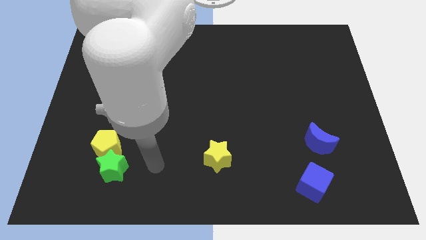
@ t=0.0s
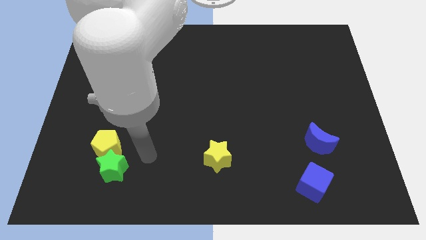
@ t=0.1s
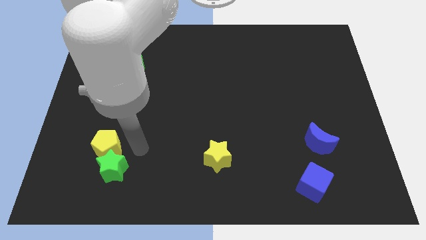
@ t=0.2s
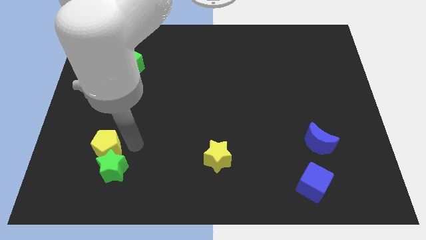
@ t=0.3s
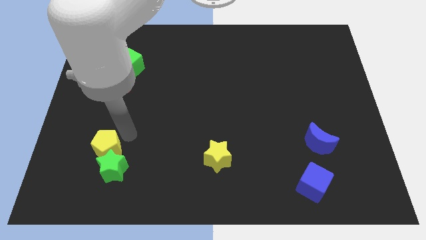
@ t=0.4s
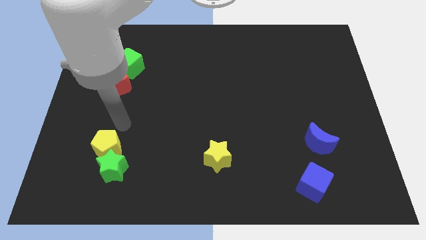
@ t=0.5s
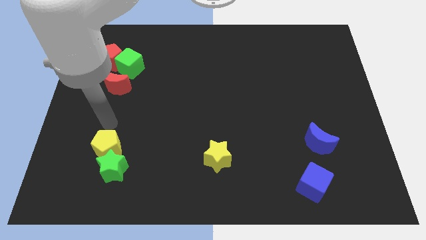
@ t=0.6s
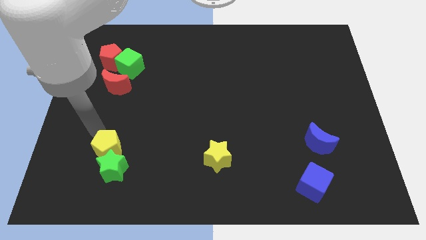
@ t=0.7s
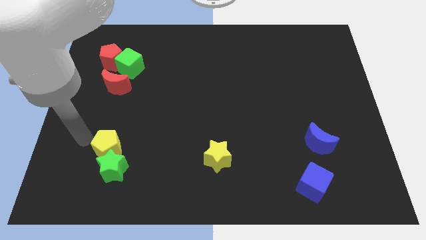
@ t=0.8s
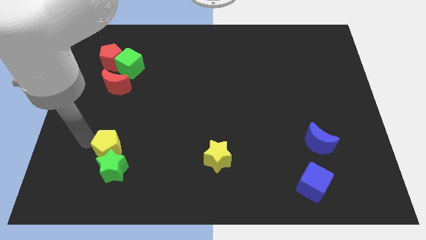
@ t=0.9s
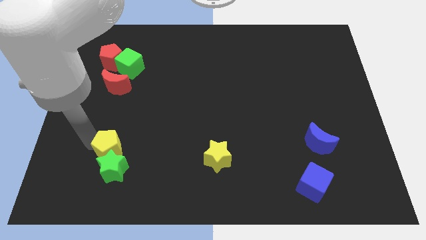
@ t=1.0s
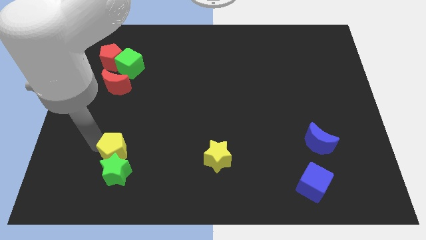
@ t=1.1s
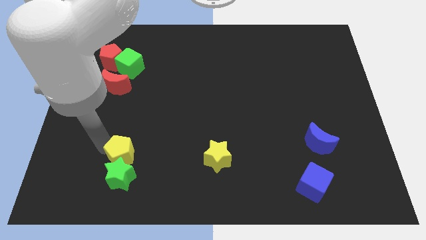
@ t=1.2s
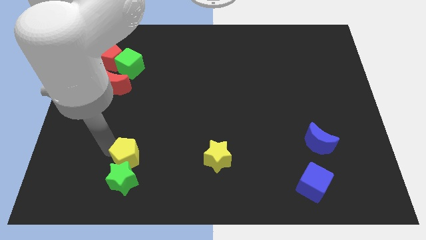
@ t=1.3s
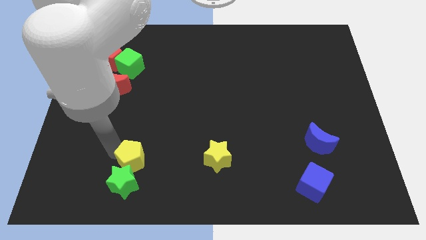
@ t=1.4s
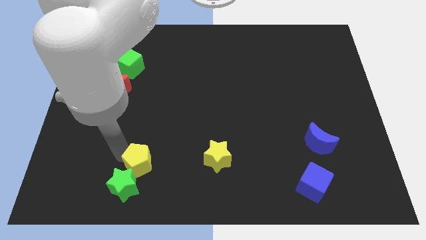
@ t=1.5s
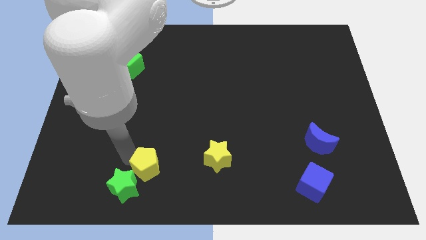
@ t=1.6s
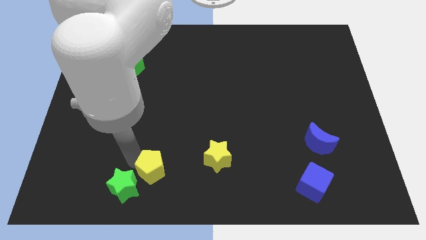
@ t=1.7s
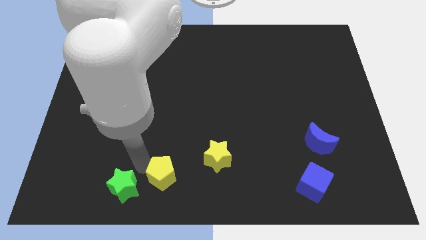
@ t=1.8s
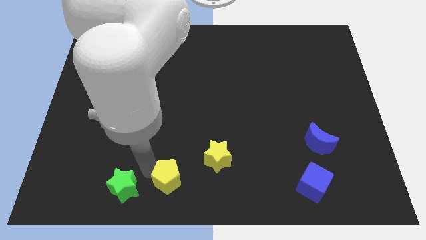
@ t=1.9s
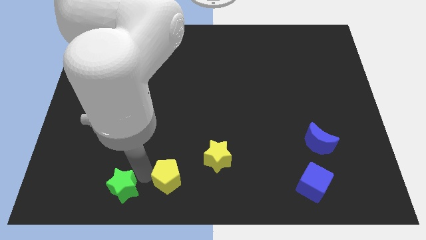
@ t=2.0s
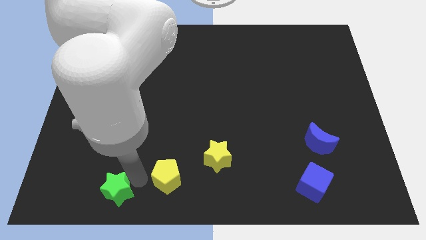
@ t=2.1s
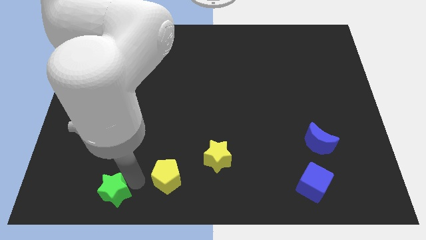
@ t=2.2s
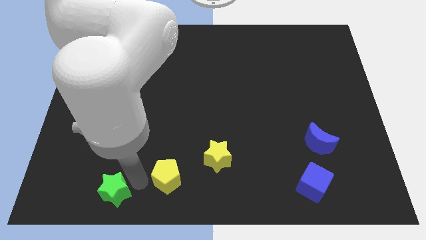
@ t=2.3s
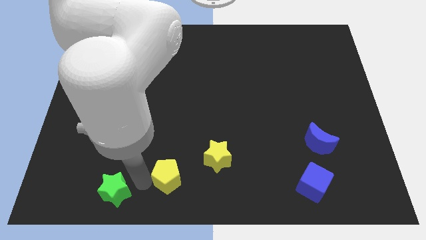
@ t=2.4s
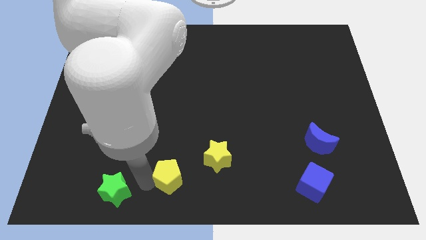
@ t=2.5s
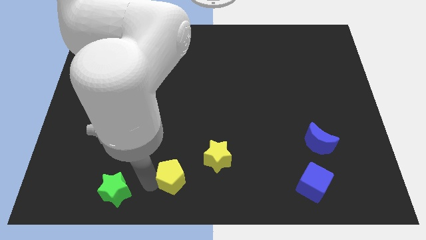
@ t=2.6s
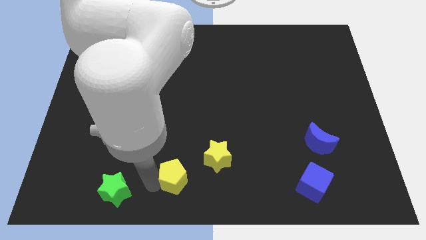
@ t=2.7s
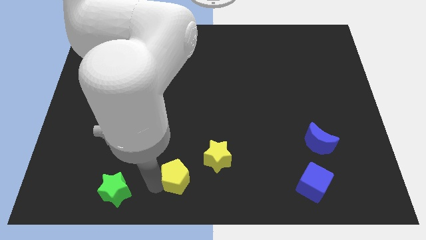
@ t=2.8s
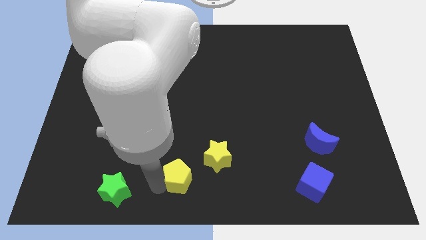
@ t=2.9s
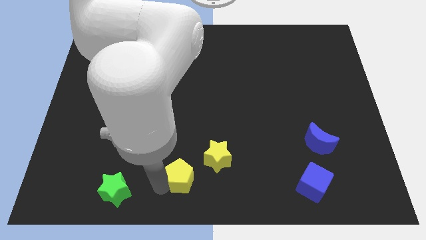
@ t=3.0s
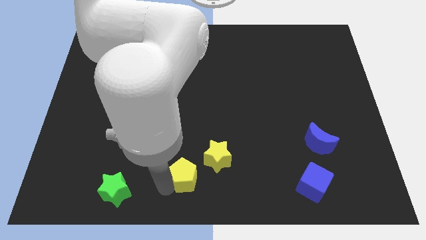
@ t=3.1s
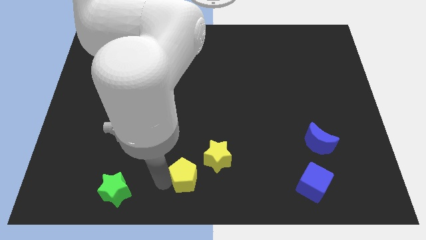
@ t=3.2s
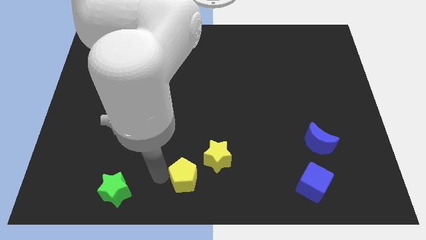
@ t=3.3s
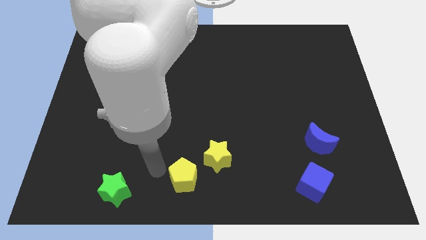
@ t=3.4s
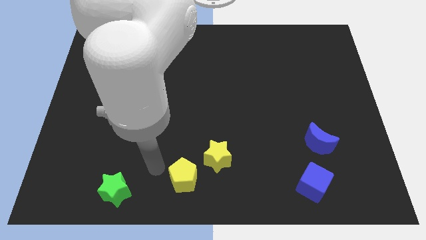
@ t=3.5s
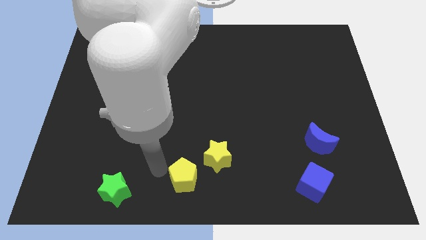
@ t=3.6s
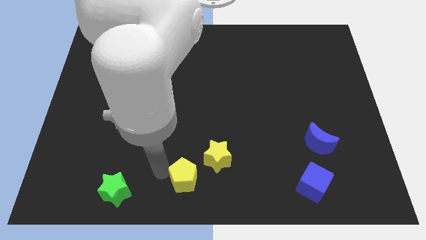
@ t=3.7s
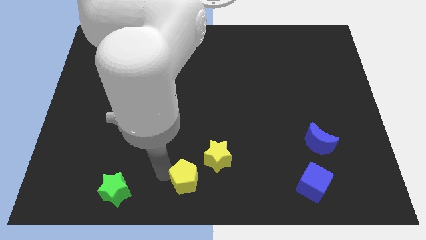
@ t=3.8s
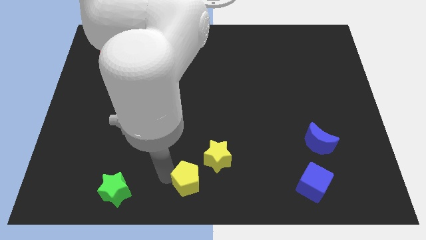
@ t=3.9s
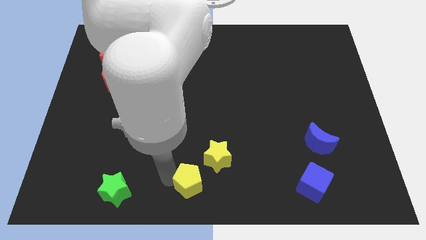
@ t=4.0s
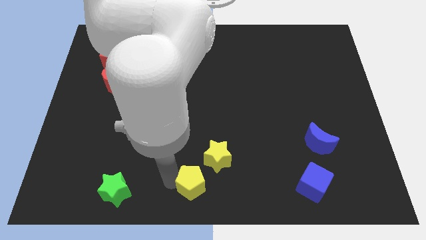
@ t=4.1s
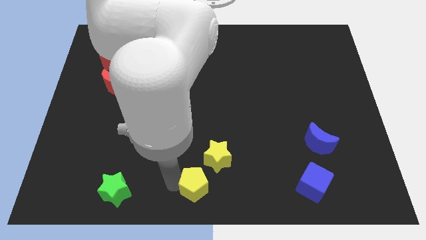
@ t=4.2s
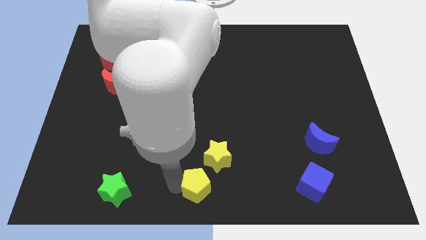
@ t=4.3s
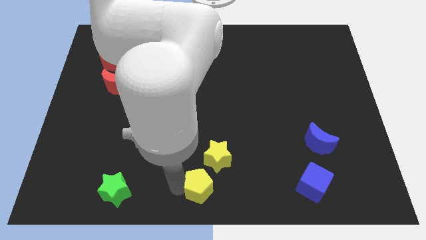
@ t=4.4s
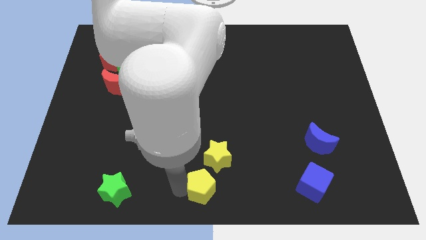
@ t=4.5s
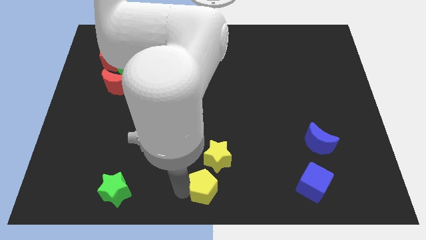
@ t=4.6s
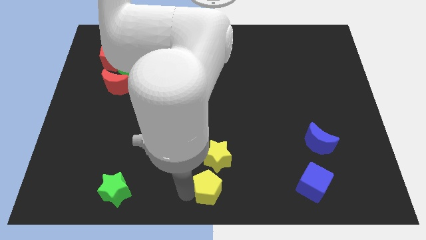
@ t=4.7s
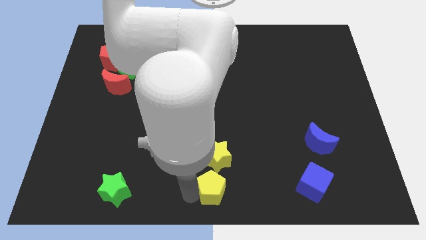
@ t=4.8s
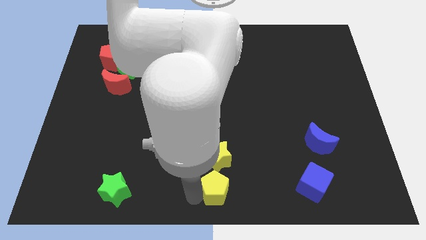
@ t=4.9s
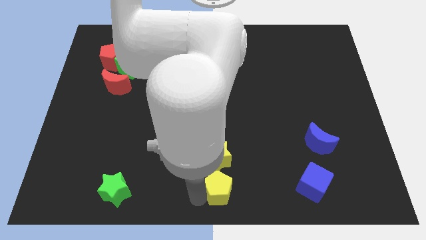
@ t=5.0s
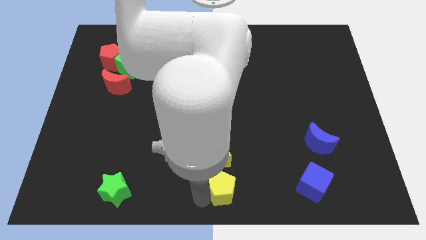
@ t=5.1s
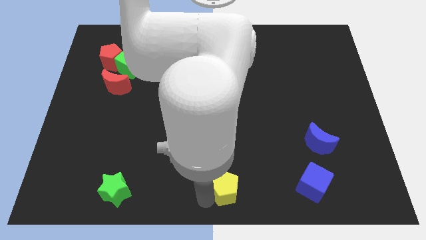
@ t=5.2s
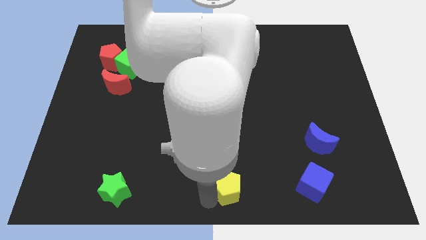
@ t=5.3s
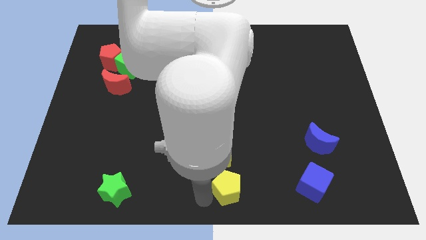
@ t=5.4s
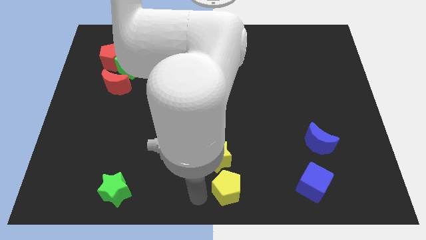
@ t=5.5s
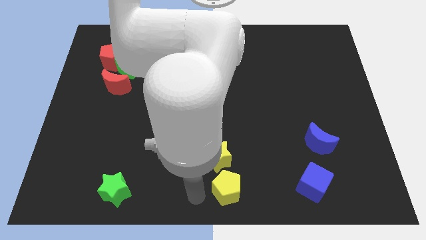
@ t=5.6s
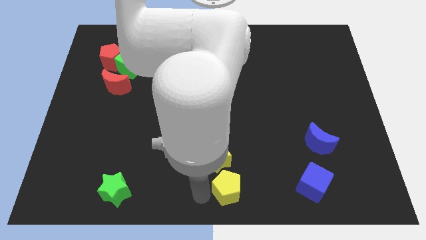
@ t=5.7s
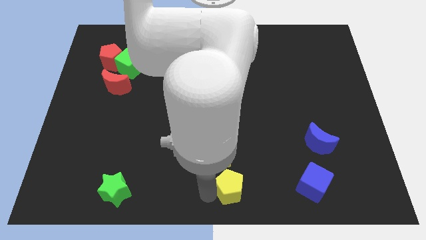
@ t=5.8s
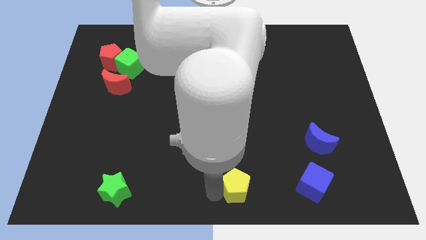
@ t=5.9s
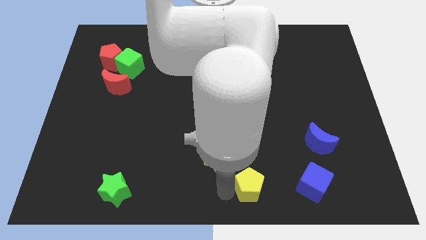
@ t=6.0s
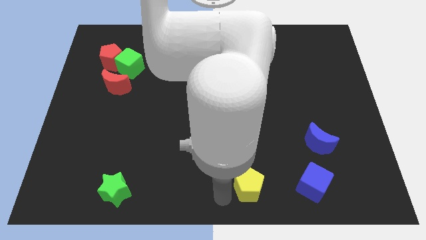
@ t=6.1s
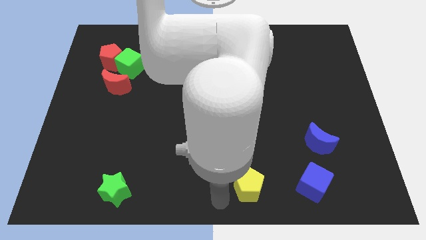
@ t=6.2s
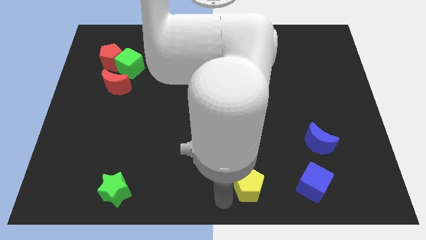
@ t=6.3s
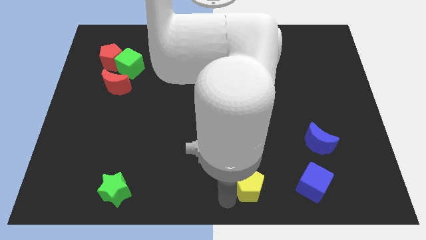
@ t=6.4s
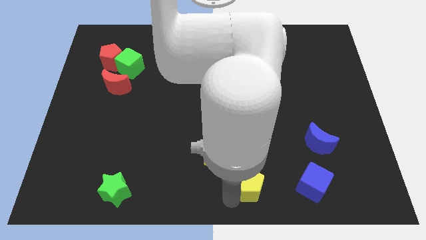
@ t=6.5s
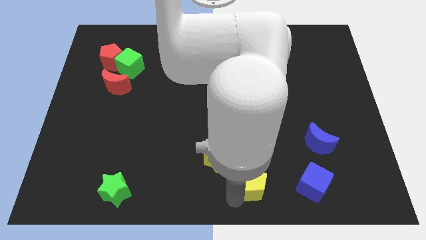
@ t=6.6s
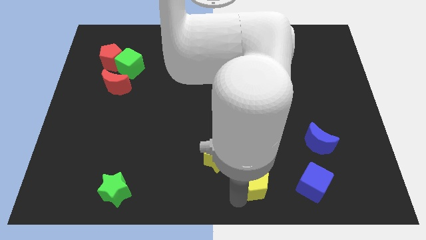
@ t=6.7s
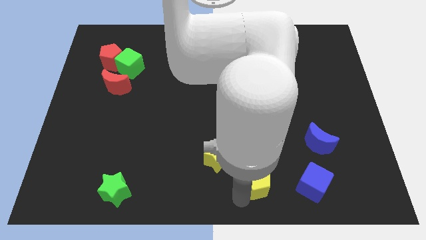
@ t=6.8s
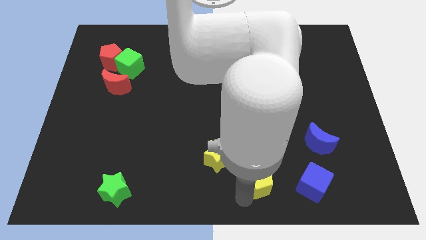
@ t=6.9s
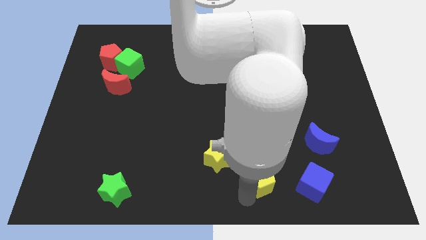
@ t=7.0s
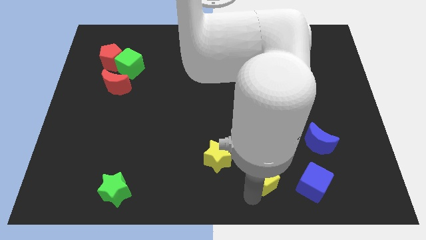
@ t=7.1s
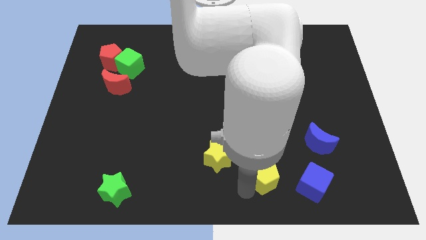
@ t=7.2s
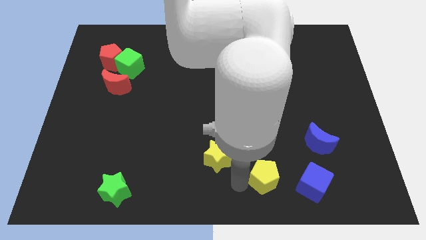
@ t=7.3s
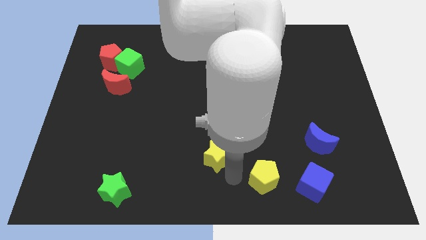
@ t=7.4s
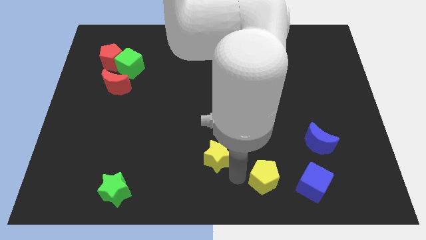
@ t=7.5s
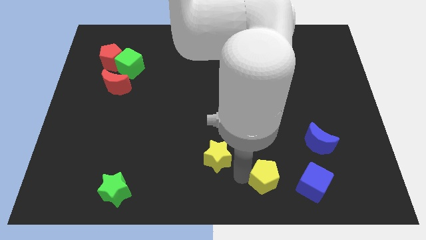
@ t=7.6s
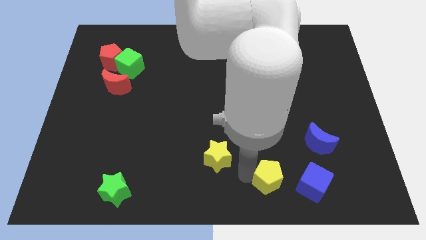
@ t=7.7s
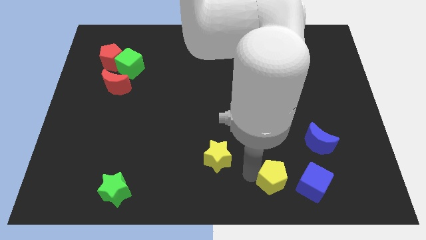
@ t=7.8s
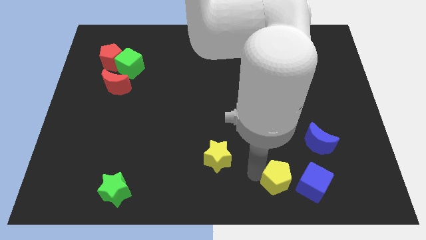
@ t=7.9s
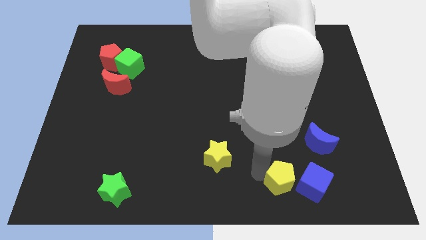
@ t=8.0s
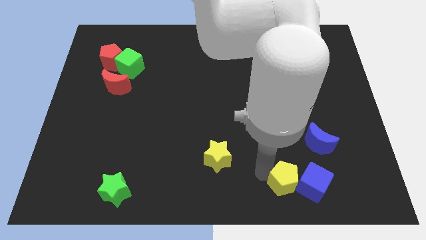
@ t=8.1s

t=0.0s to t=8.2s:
push the yellow pentagon next to the blue cube
